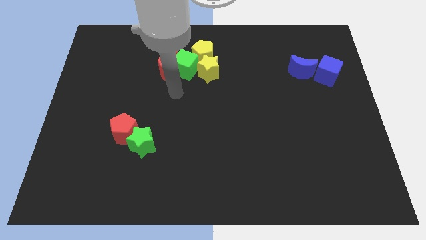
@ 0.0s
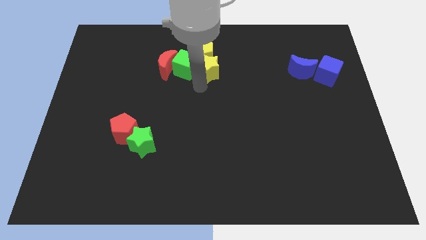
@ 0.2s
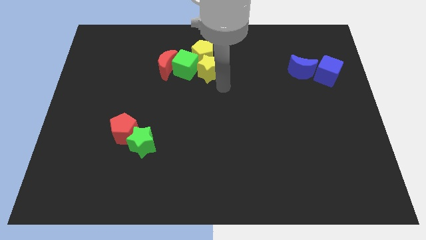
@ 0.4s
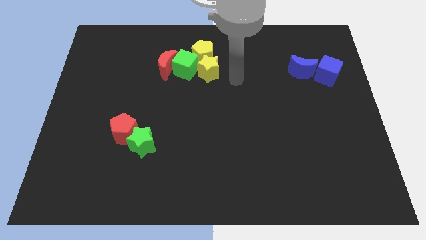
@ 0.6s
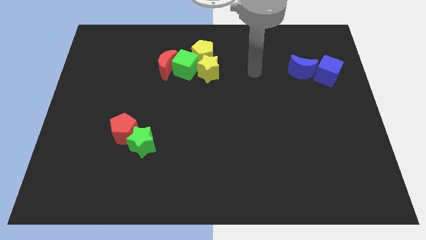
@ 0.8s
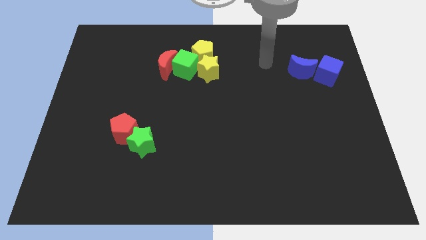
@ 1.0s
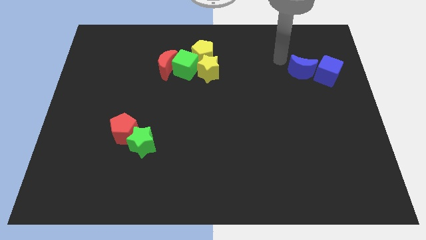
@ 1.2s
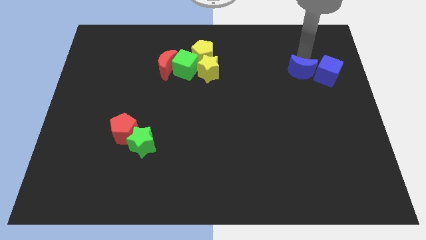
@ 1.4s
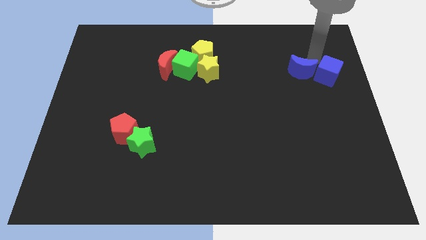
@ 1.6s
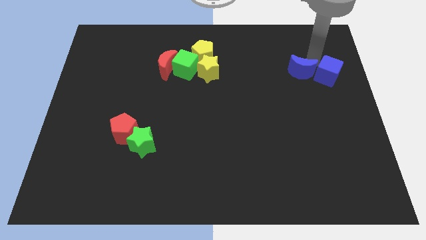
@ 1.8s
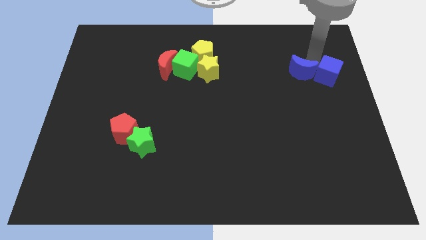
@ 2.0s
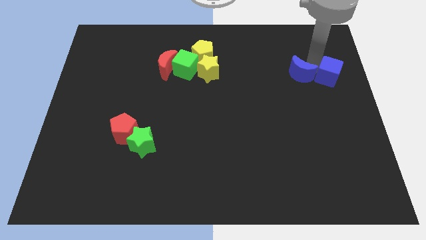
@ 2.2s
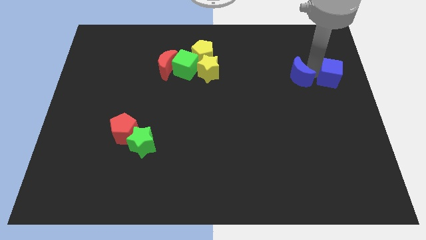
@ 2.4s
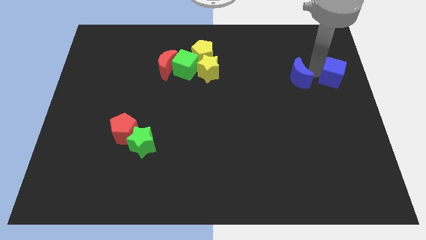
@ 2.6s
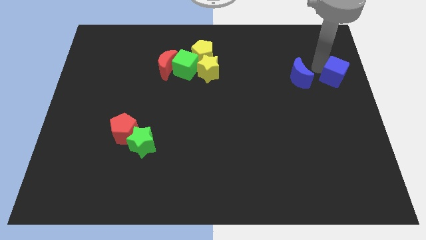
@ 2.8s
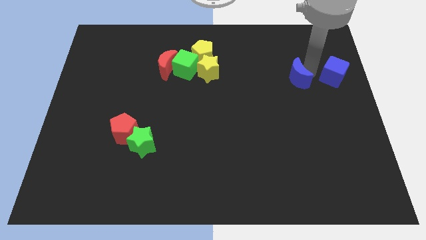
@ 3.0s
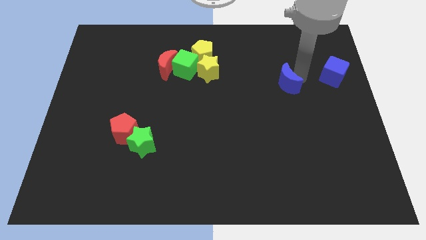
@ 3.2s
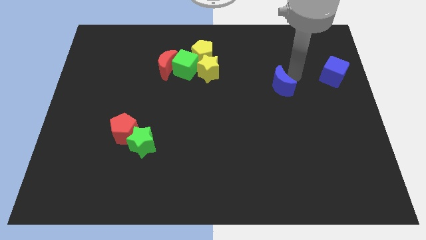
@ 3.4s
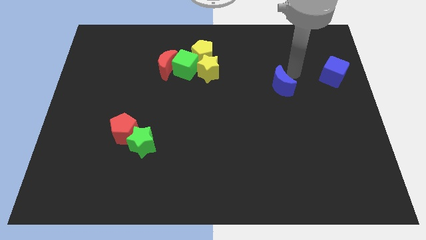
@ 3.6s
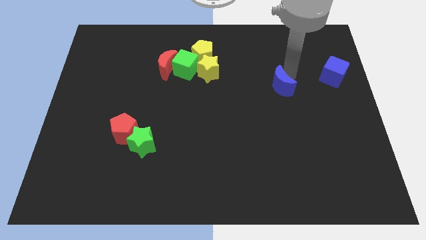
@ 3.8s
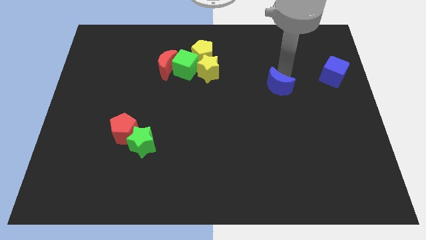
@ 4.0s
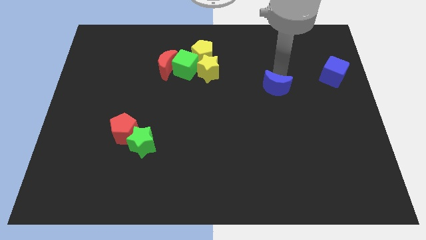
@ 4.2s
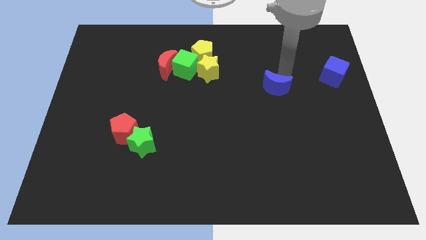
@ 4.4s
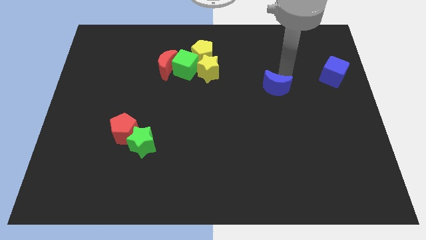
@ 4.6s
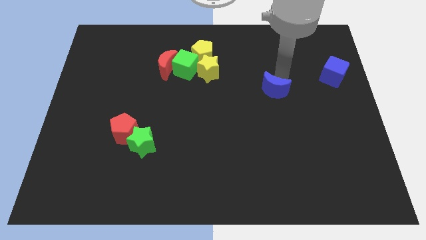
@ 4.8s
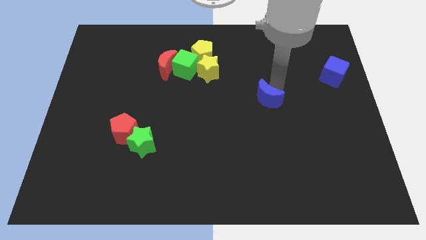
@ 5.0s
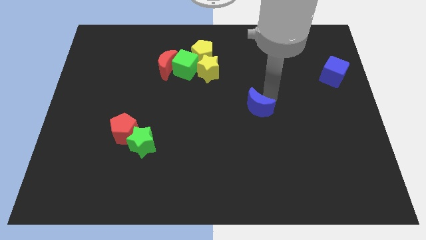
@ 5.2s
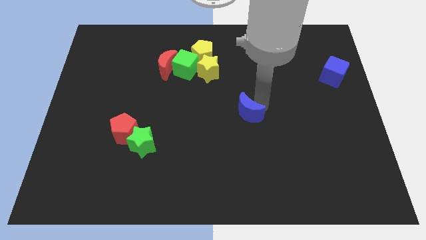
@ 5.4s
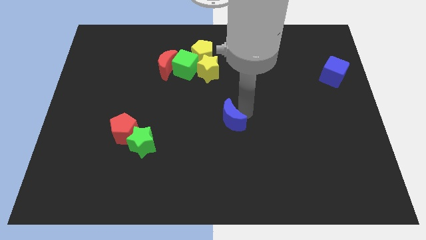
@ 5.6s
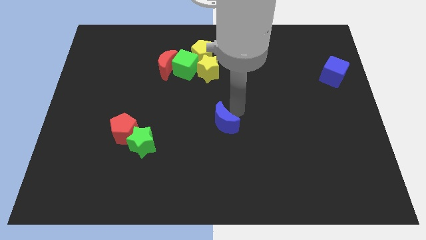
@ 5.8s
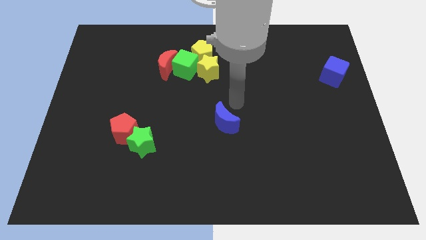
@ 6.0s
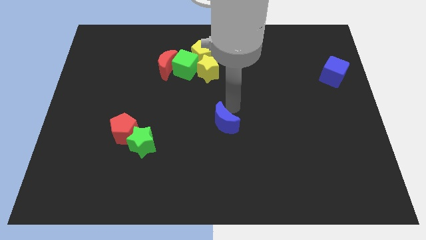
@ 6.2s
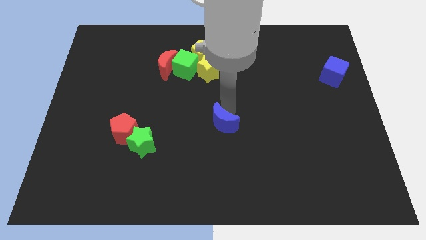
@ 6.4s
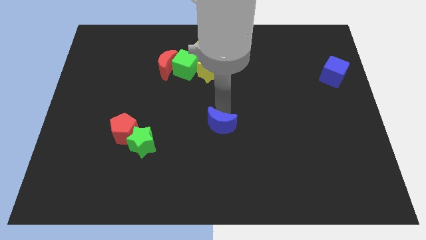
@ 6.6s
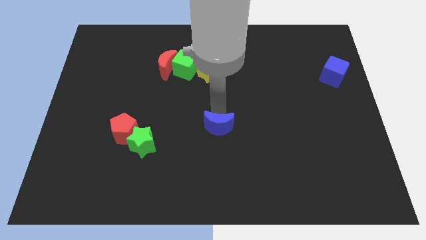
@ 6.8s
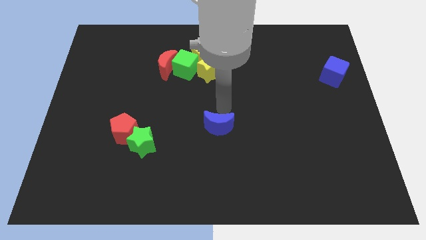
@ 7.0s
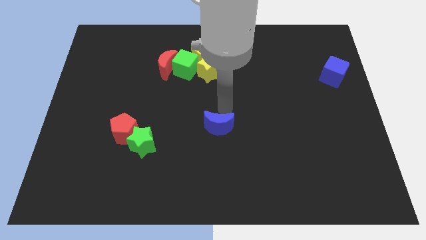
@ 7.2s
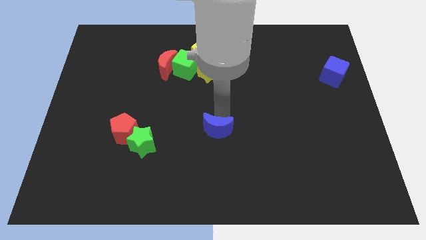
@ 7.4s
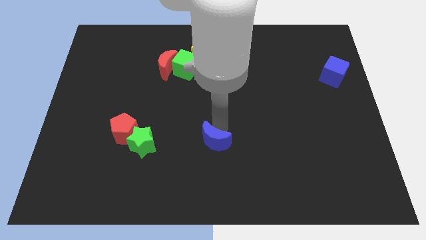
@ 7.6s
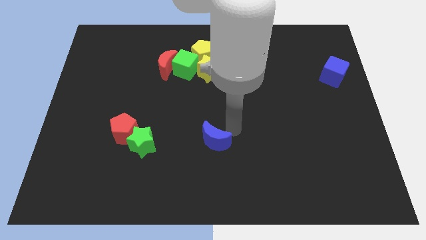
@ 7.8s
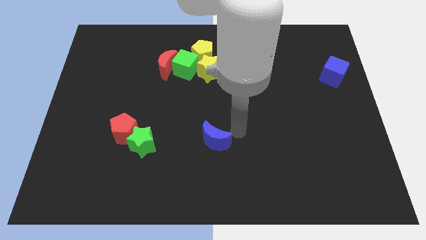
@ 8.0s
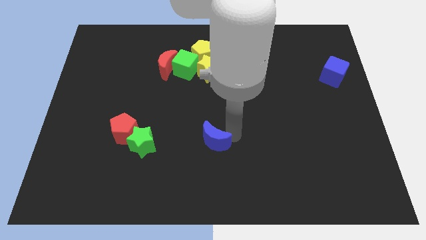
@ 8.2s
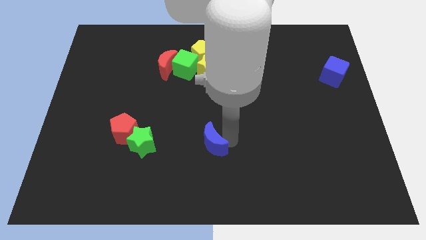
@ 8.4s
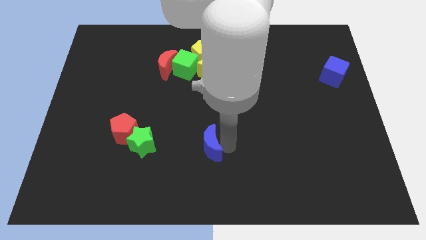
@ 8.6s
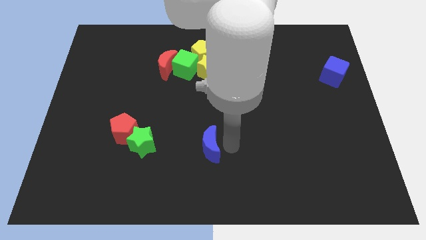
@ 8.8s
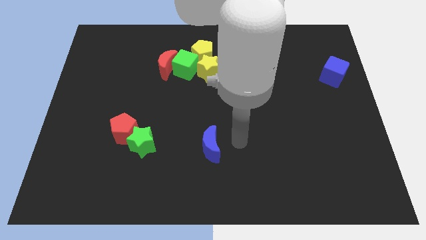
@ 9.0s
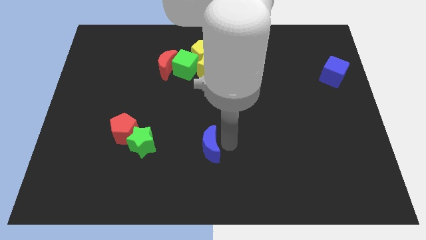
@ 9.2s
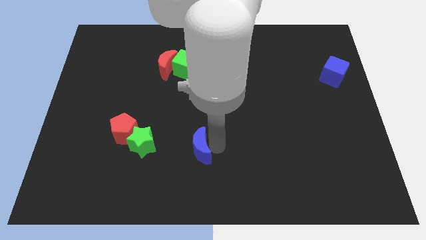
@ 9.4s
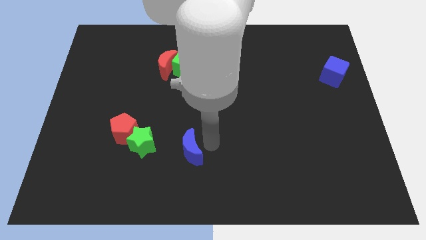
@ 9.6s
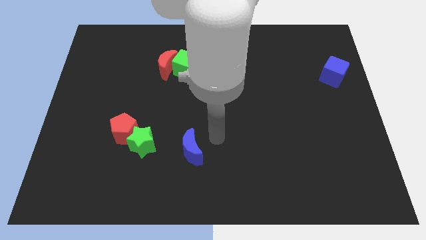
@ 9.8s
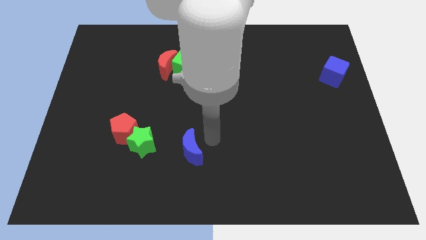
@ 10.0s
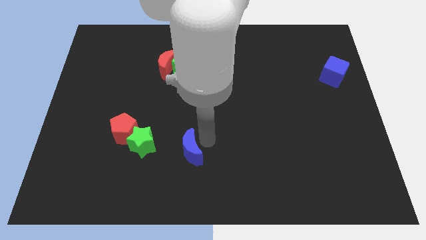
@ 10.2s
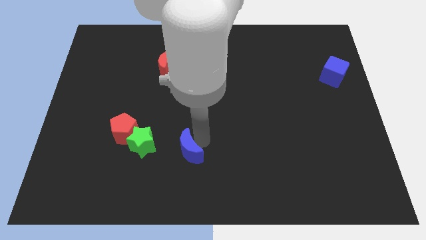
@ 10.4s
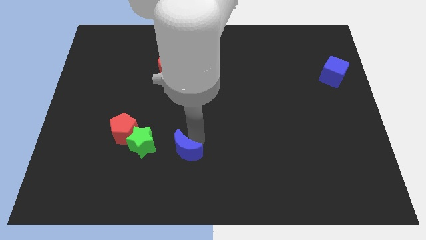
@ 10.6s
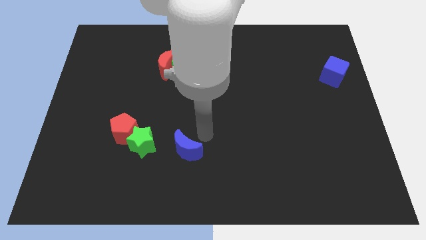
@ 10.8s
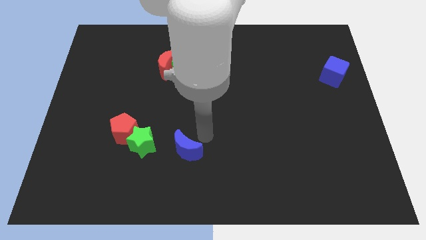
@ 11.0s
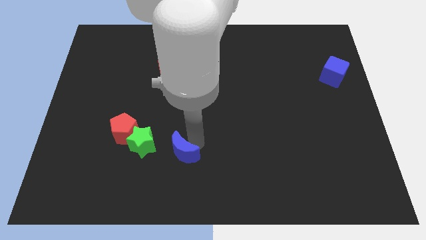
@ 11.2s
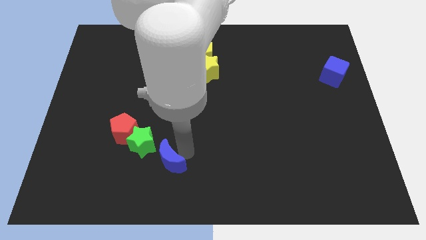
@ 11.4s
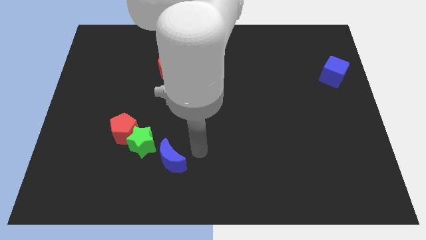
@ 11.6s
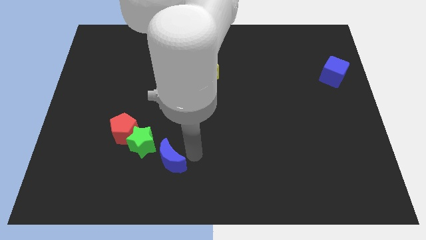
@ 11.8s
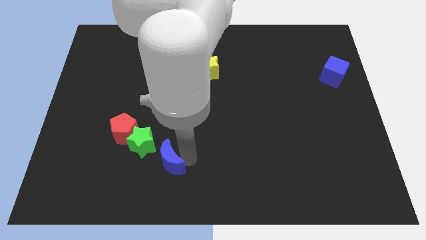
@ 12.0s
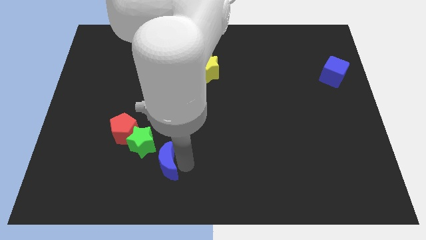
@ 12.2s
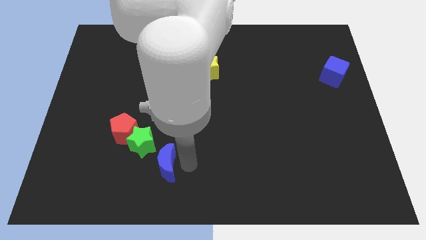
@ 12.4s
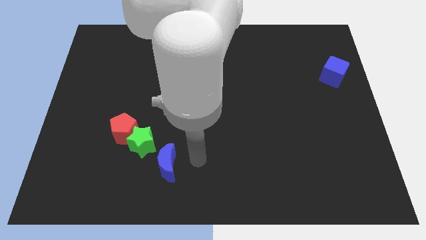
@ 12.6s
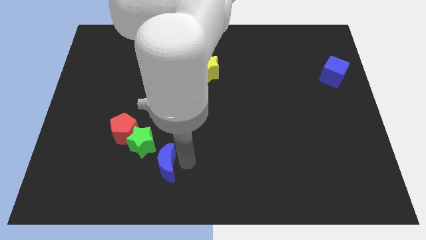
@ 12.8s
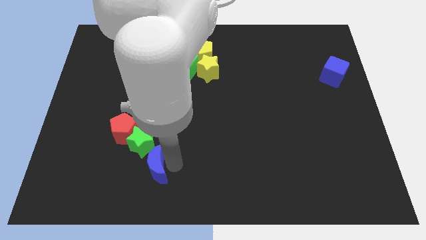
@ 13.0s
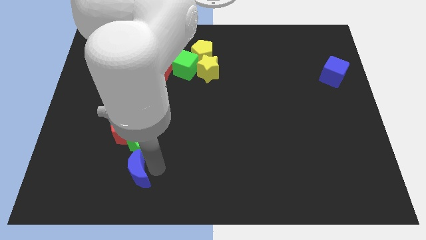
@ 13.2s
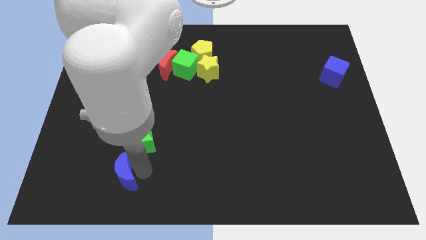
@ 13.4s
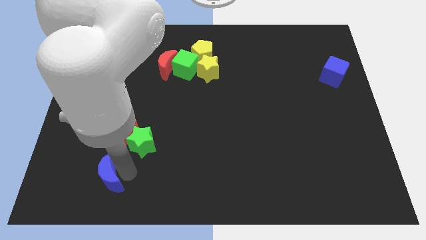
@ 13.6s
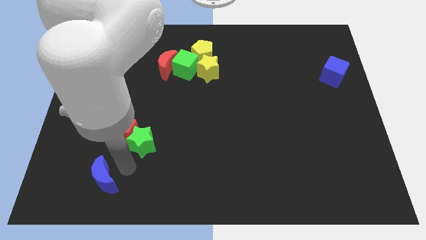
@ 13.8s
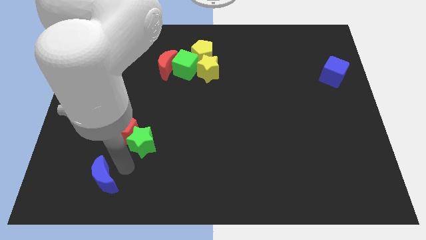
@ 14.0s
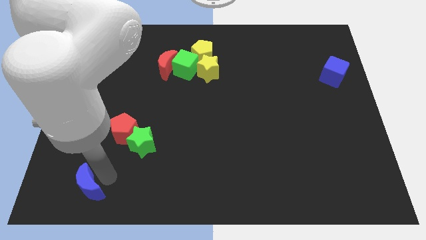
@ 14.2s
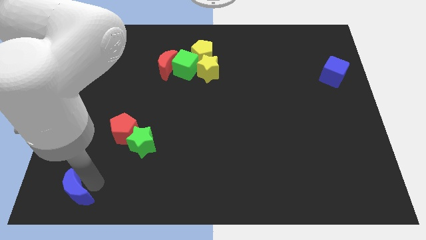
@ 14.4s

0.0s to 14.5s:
slide the blue moon to the bottom left of the board
